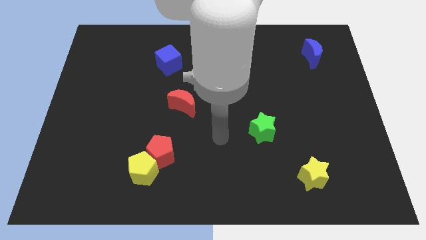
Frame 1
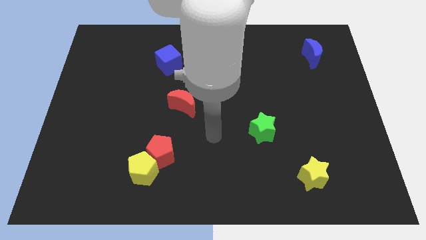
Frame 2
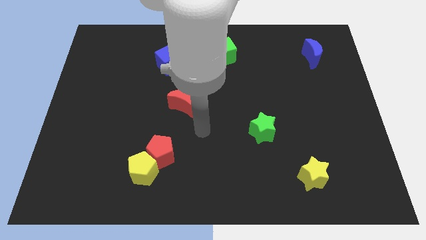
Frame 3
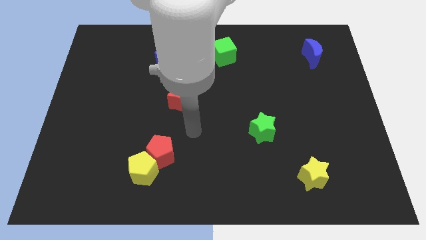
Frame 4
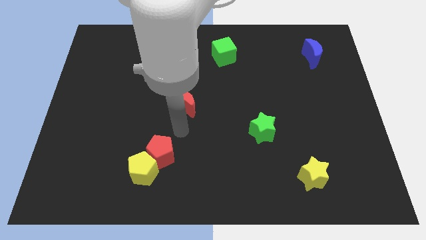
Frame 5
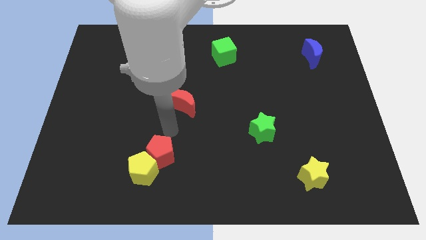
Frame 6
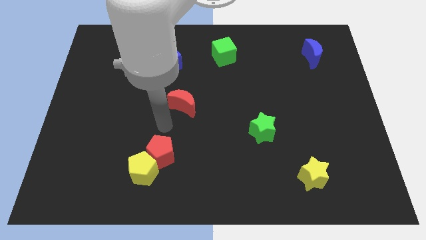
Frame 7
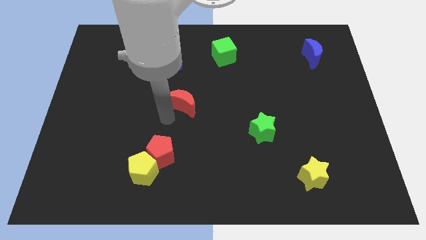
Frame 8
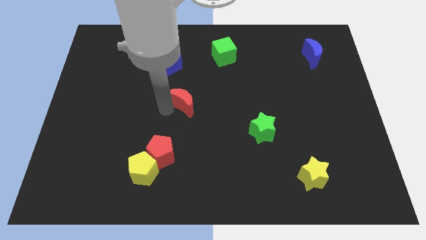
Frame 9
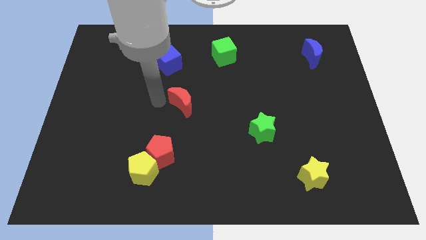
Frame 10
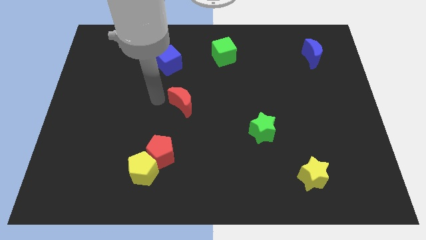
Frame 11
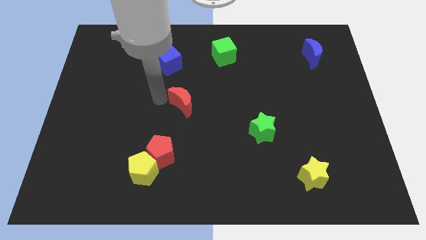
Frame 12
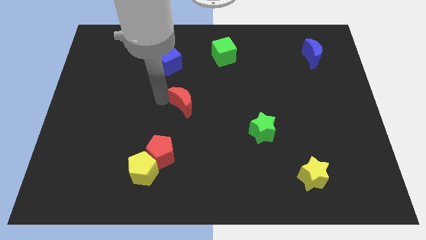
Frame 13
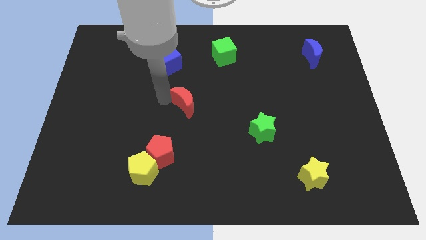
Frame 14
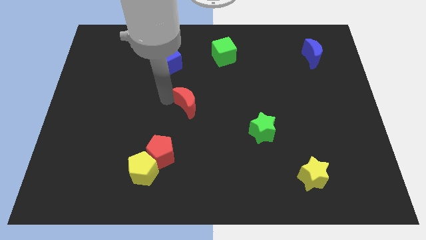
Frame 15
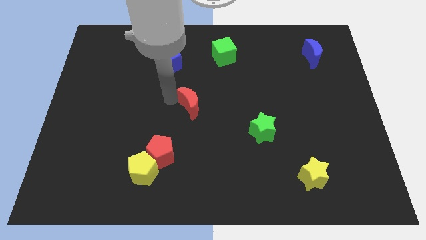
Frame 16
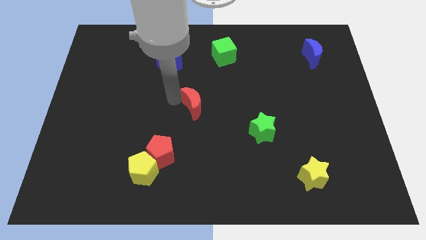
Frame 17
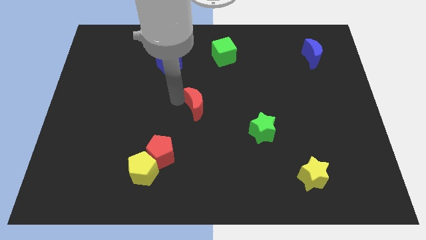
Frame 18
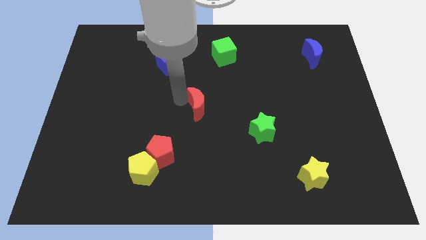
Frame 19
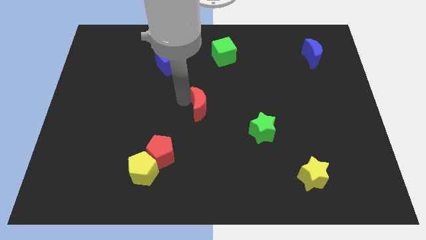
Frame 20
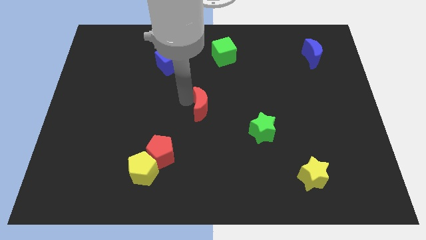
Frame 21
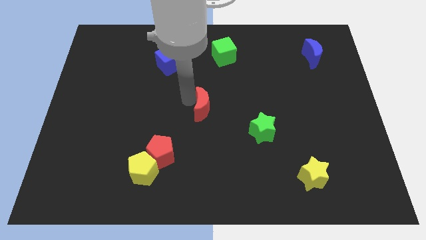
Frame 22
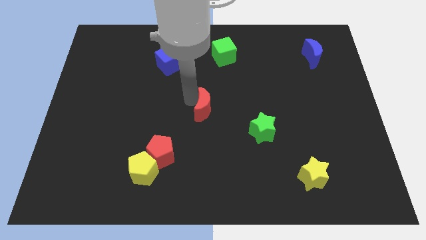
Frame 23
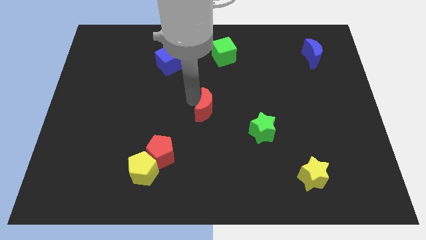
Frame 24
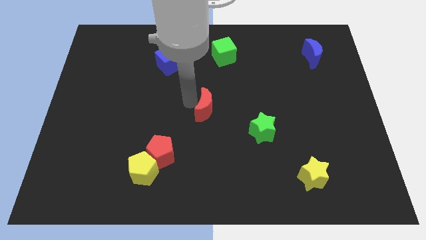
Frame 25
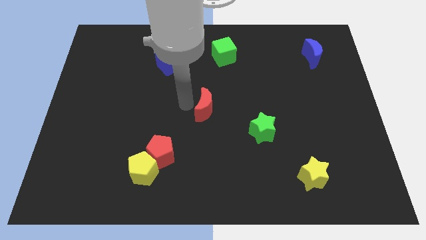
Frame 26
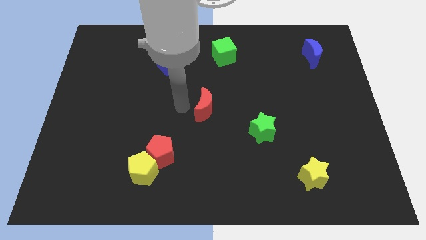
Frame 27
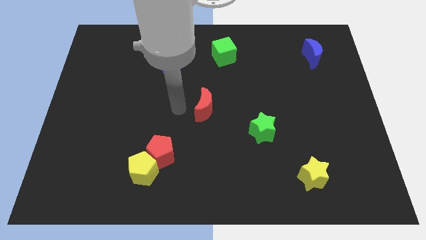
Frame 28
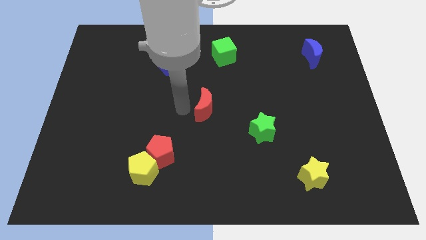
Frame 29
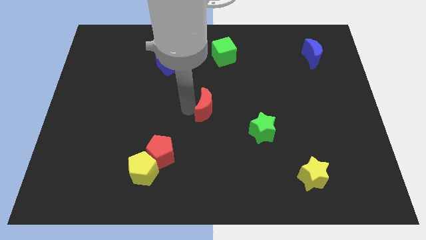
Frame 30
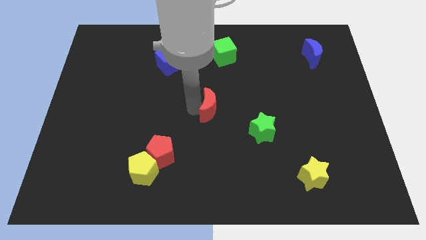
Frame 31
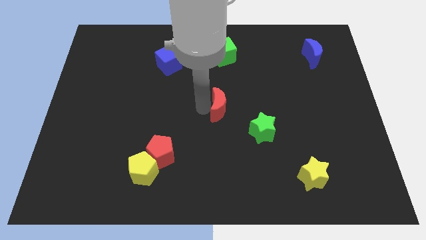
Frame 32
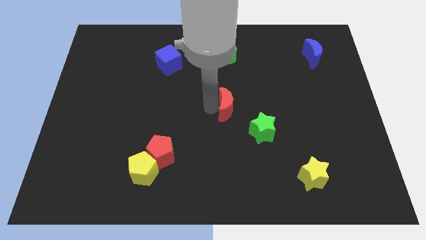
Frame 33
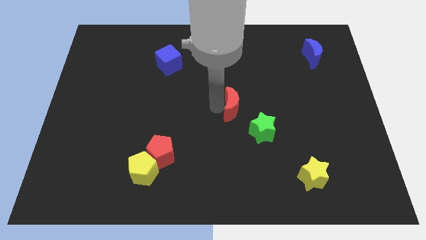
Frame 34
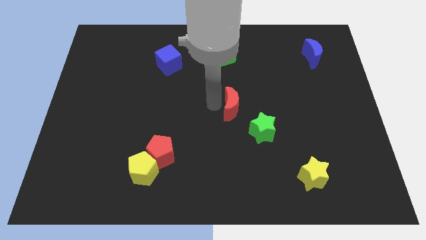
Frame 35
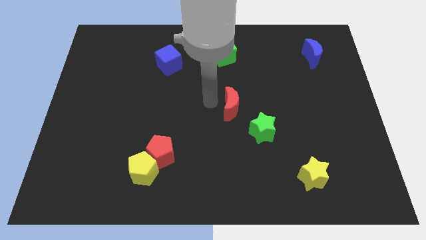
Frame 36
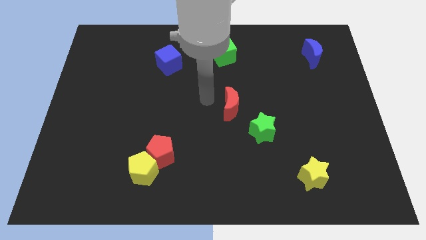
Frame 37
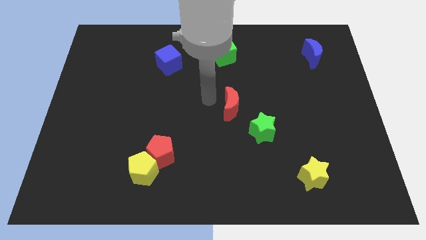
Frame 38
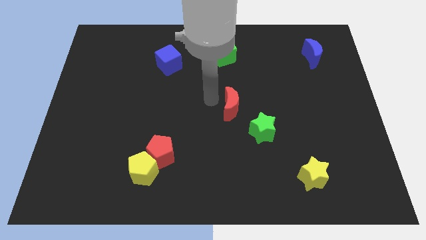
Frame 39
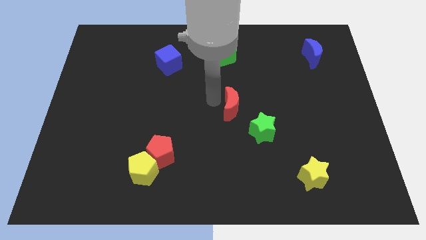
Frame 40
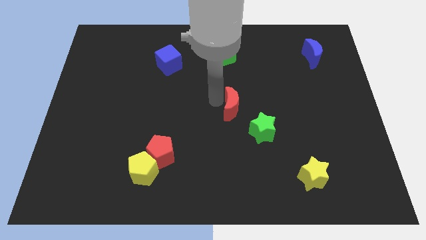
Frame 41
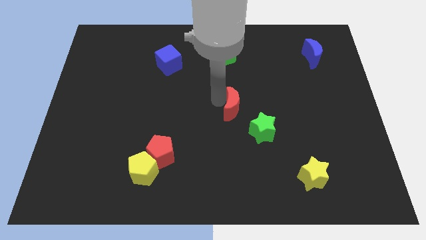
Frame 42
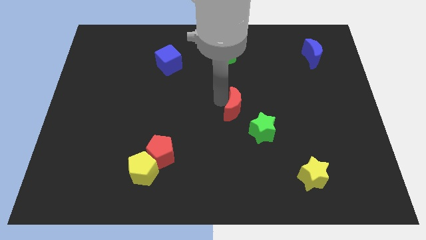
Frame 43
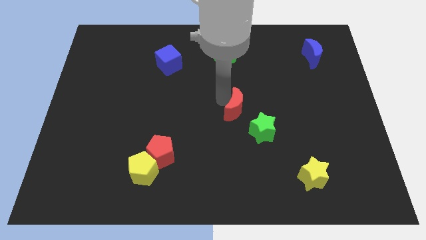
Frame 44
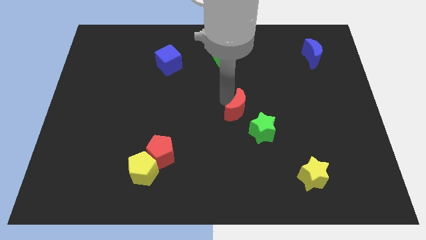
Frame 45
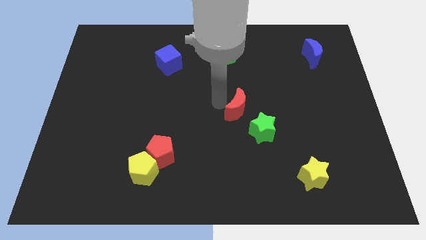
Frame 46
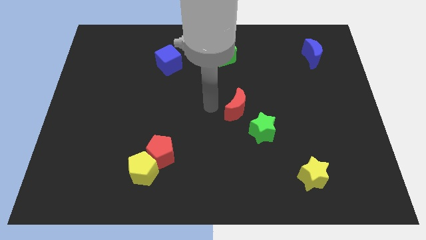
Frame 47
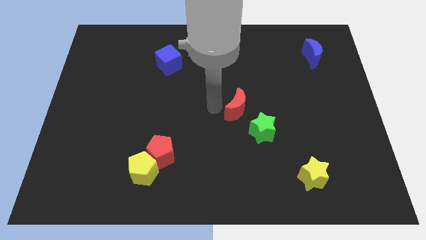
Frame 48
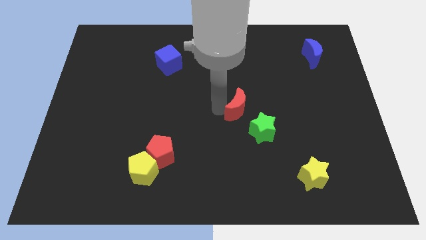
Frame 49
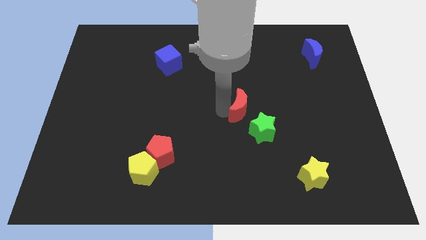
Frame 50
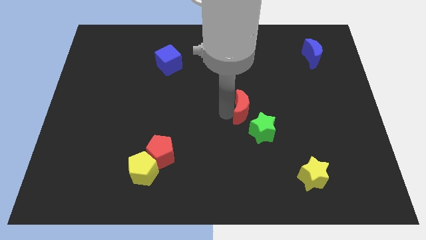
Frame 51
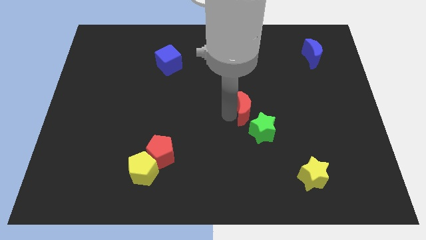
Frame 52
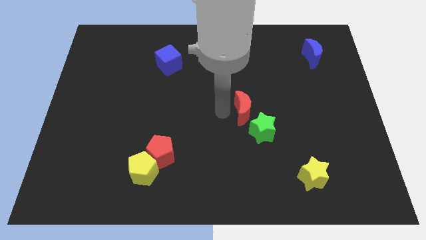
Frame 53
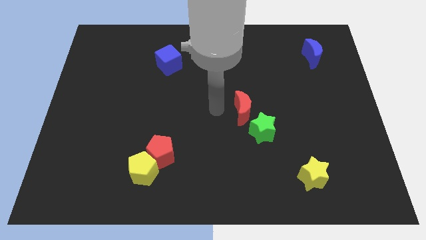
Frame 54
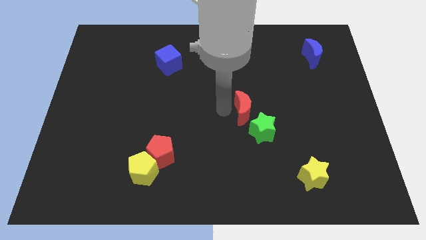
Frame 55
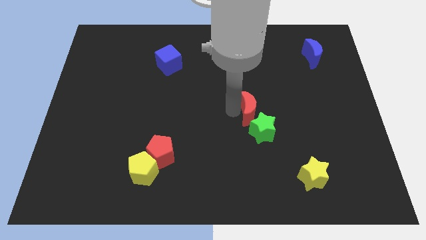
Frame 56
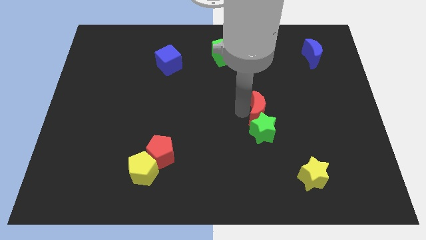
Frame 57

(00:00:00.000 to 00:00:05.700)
push the red moon diagonally up and to the right of the green star
